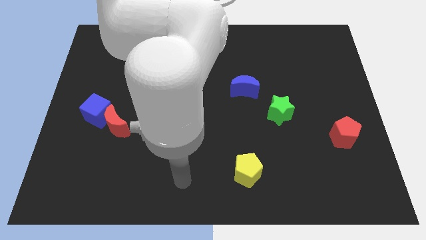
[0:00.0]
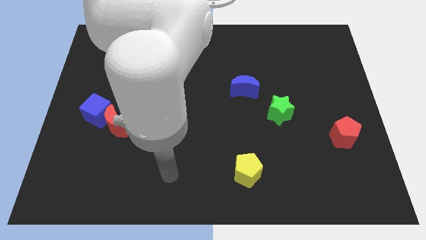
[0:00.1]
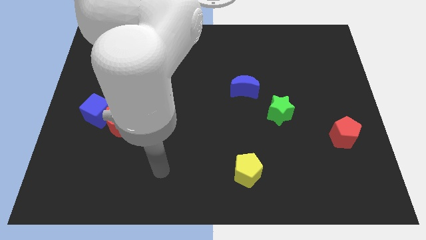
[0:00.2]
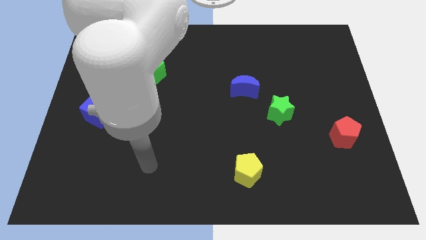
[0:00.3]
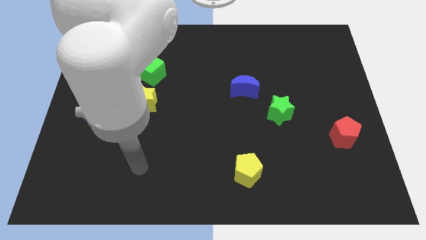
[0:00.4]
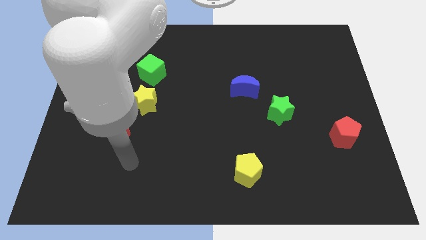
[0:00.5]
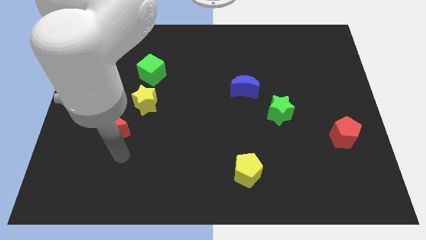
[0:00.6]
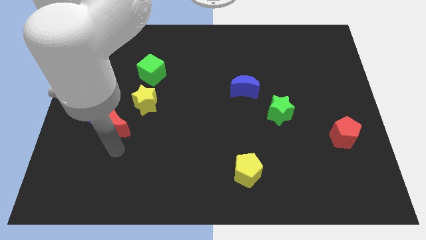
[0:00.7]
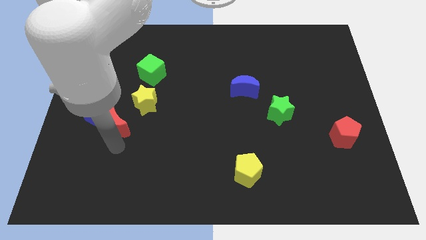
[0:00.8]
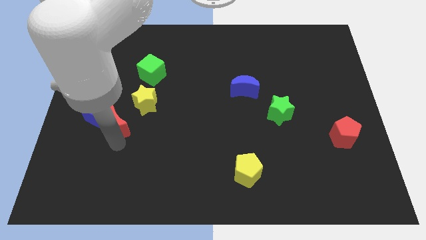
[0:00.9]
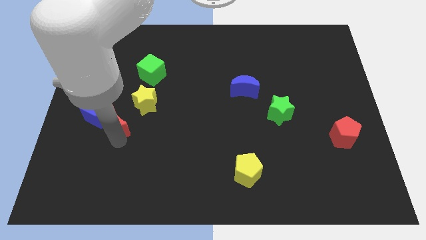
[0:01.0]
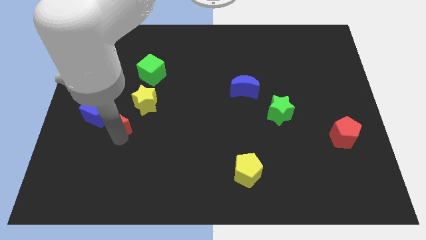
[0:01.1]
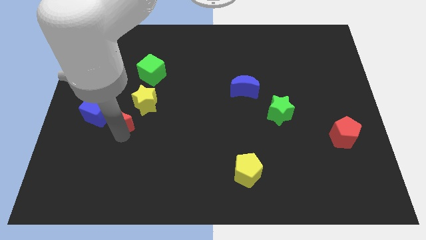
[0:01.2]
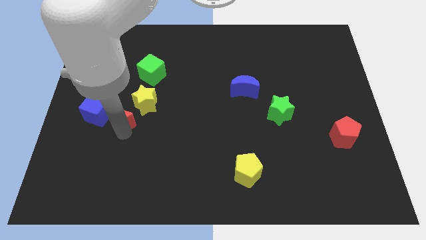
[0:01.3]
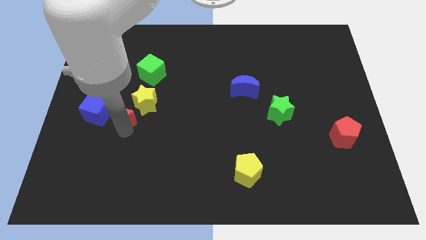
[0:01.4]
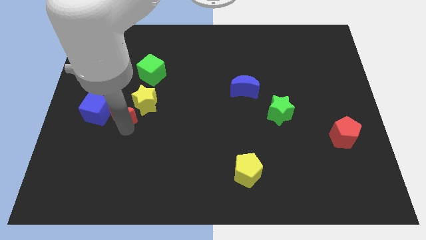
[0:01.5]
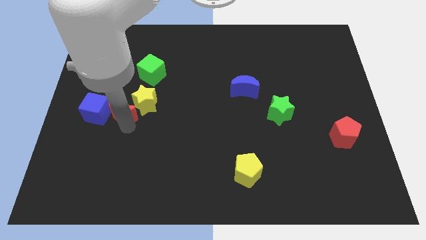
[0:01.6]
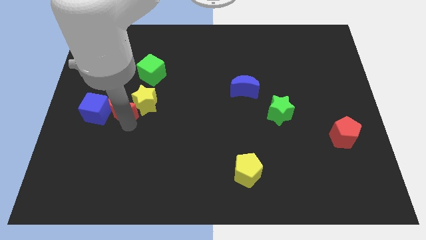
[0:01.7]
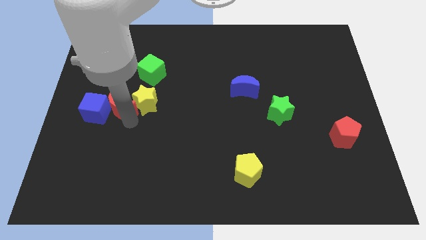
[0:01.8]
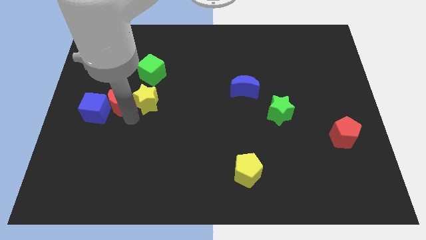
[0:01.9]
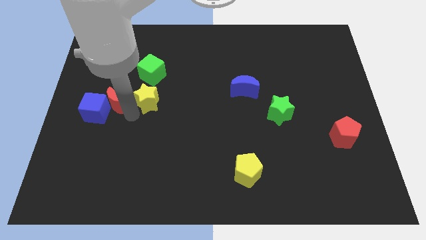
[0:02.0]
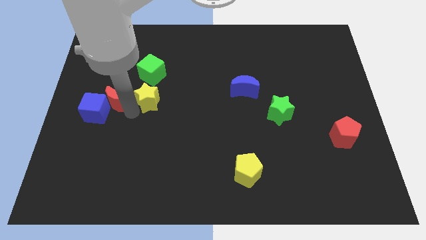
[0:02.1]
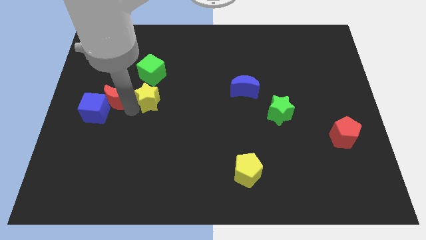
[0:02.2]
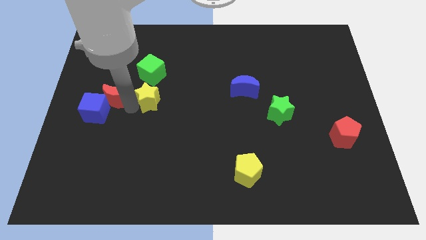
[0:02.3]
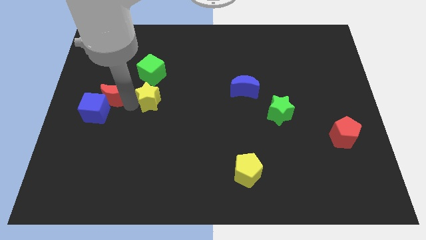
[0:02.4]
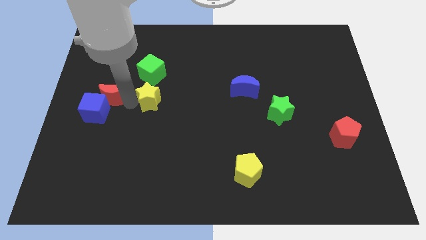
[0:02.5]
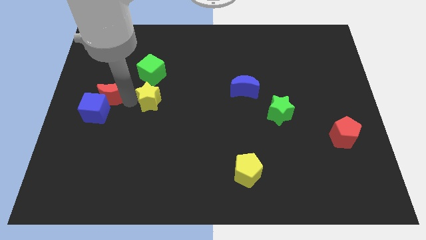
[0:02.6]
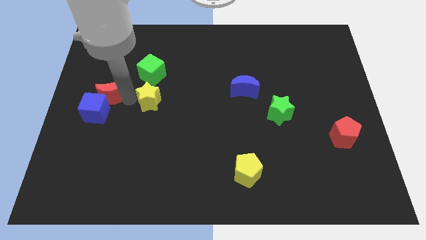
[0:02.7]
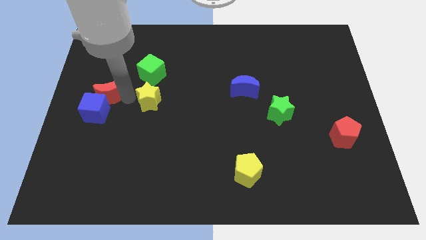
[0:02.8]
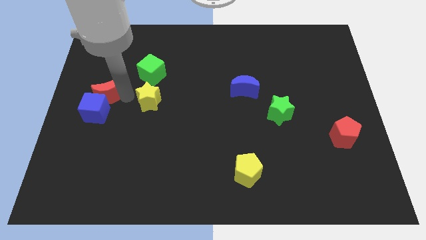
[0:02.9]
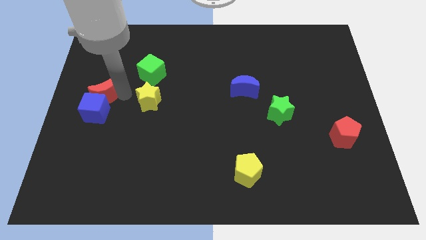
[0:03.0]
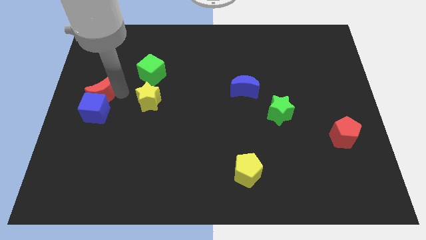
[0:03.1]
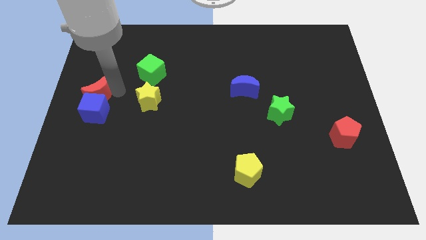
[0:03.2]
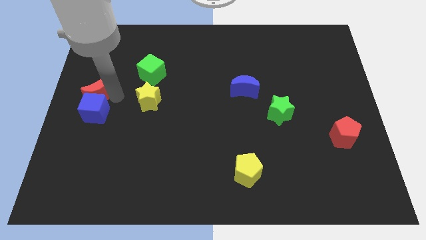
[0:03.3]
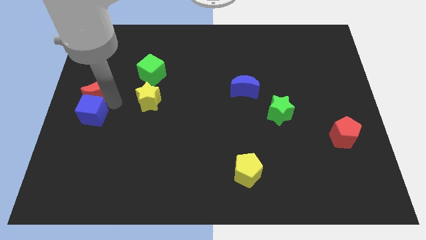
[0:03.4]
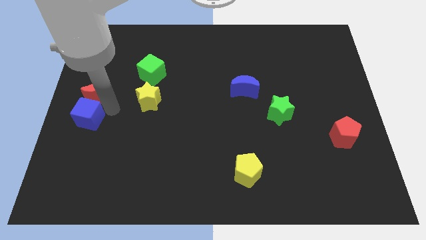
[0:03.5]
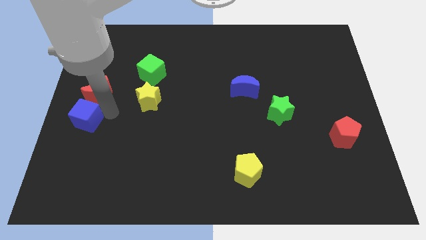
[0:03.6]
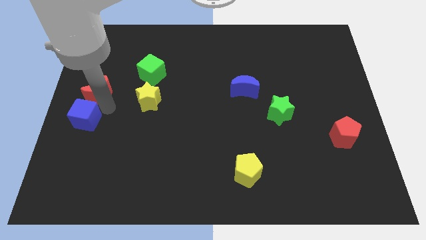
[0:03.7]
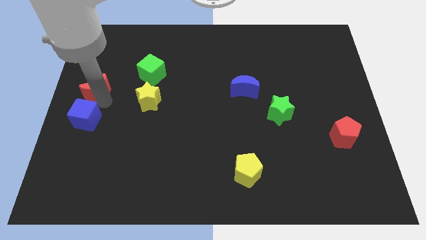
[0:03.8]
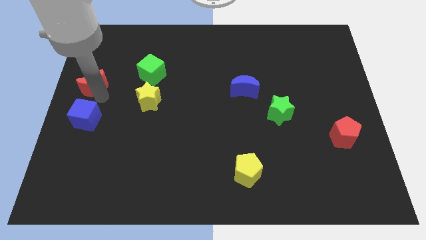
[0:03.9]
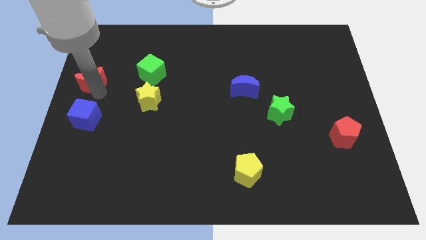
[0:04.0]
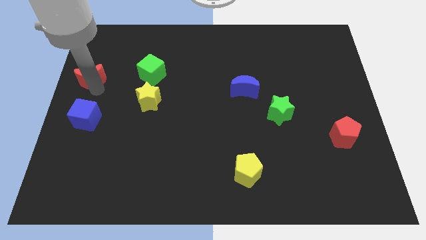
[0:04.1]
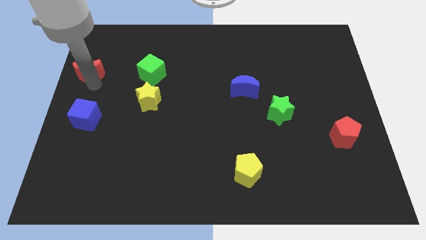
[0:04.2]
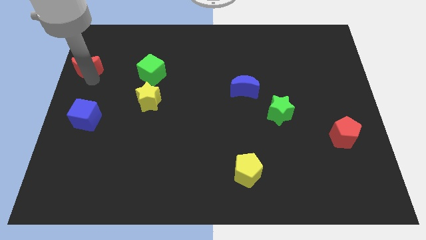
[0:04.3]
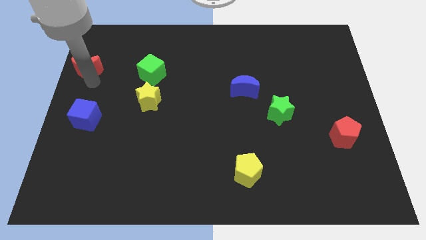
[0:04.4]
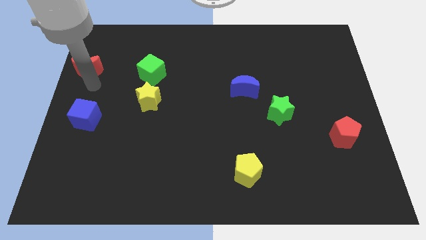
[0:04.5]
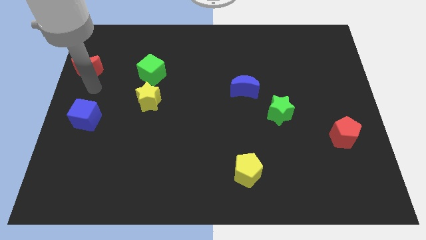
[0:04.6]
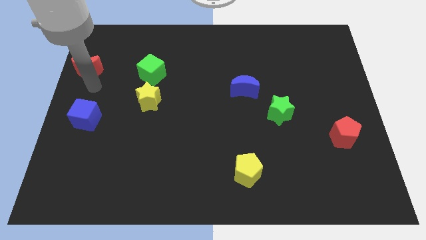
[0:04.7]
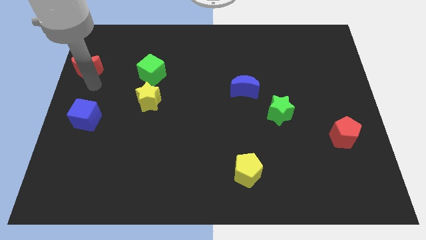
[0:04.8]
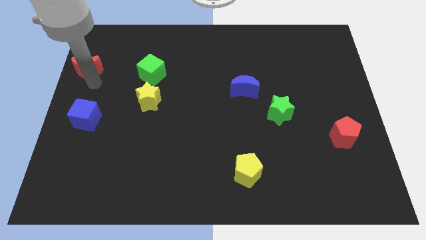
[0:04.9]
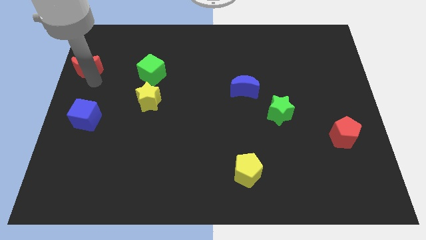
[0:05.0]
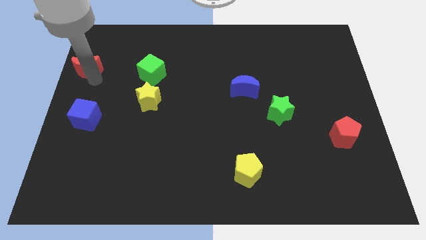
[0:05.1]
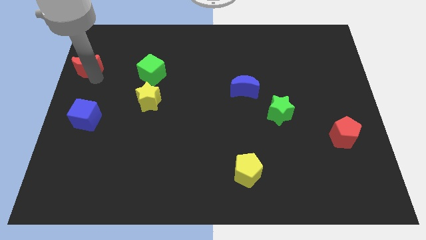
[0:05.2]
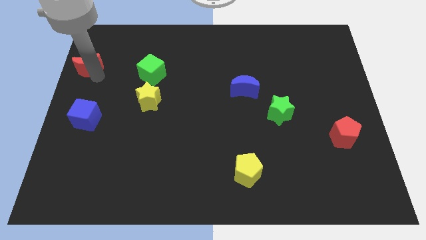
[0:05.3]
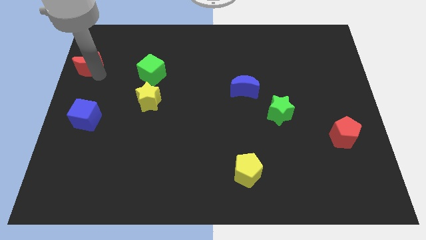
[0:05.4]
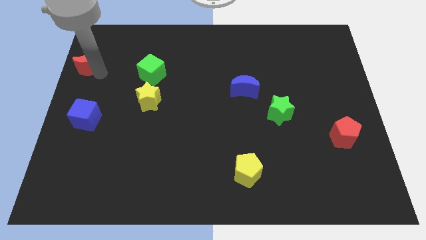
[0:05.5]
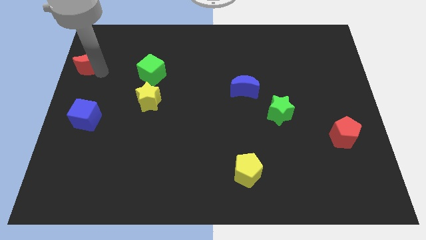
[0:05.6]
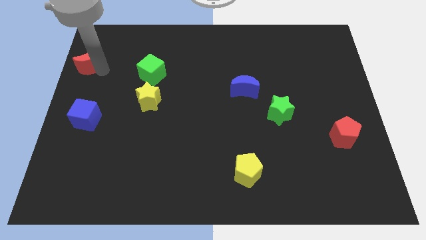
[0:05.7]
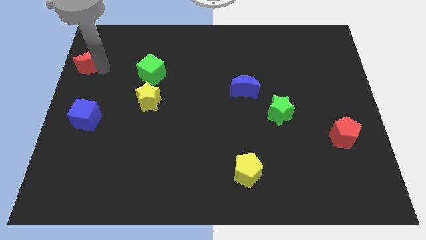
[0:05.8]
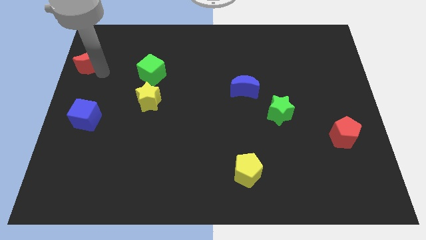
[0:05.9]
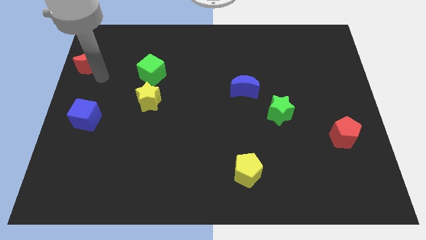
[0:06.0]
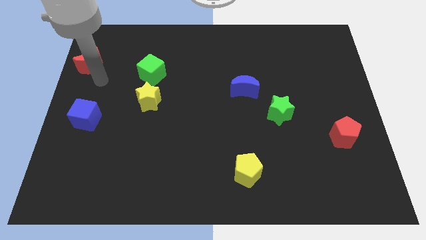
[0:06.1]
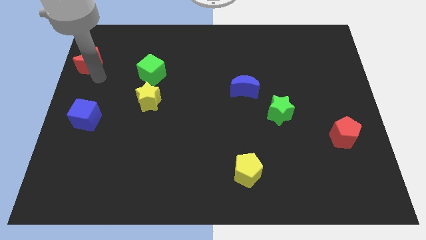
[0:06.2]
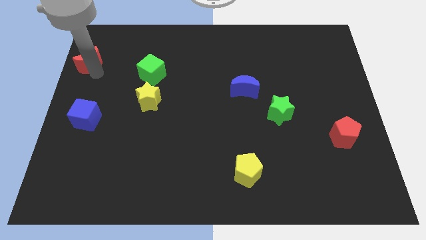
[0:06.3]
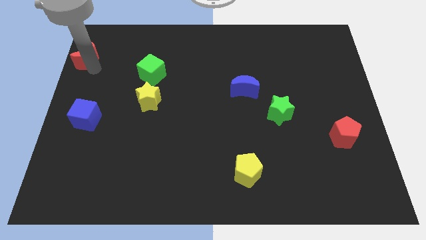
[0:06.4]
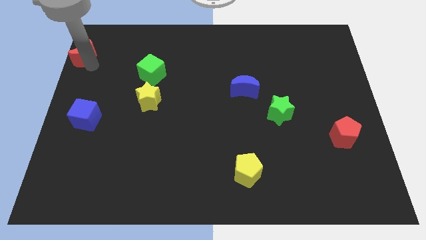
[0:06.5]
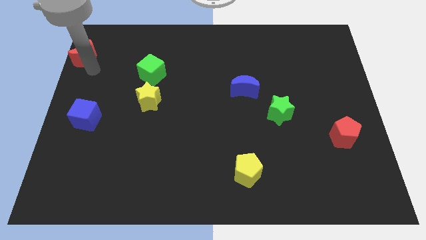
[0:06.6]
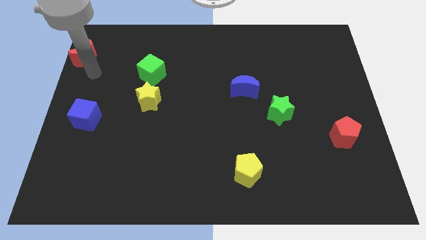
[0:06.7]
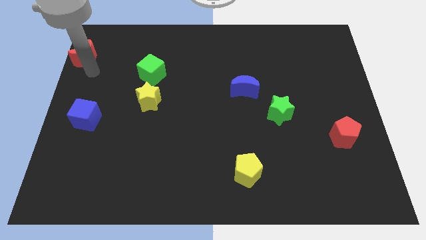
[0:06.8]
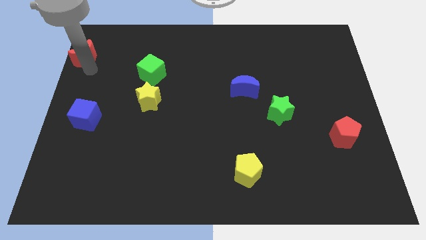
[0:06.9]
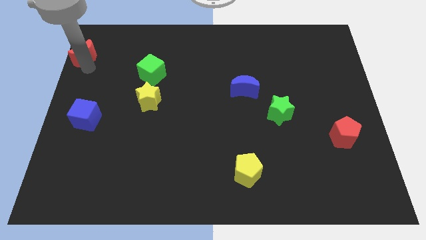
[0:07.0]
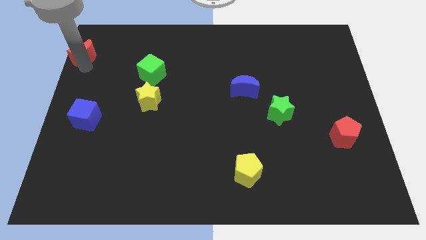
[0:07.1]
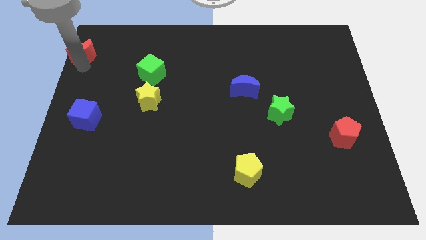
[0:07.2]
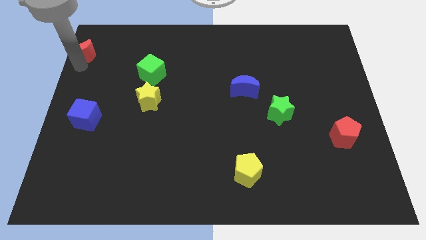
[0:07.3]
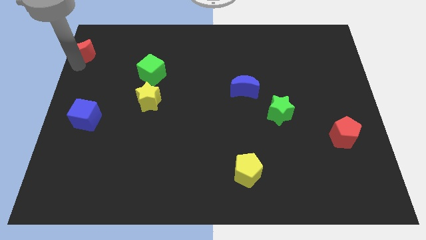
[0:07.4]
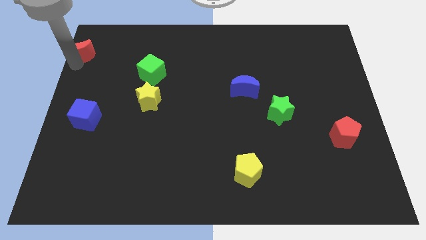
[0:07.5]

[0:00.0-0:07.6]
put the red moon to the top left corner
